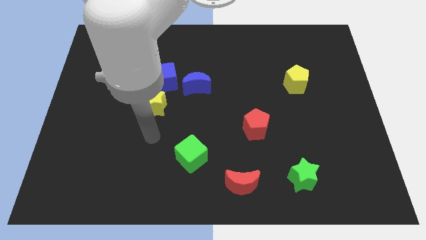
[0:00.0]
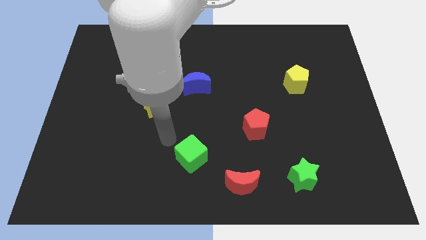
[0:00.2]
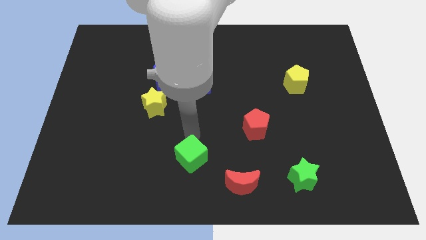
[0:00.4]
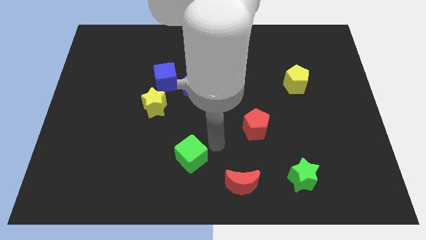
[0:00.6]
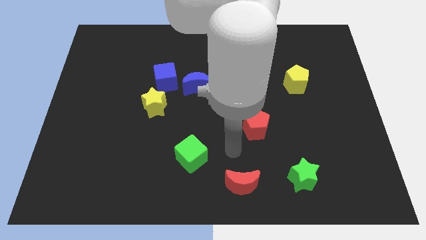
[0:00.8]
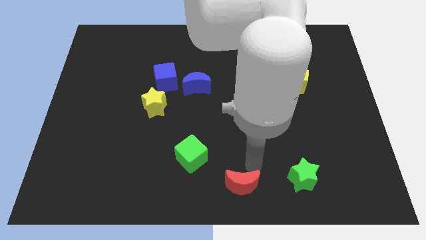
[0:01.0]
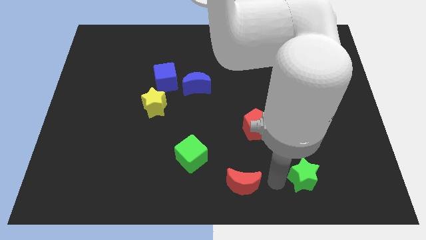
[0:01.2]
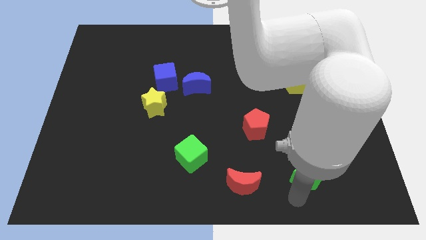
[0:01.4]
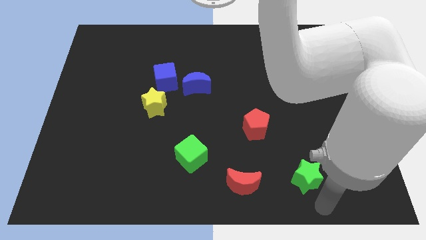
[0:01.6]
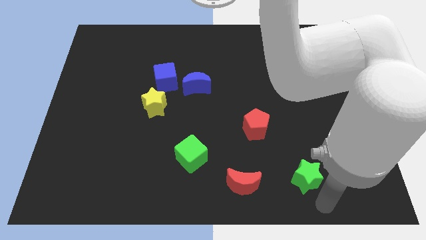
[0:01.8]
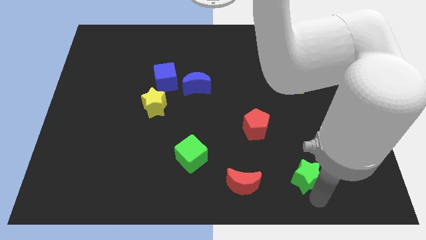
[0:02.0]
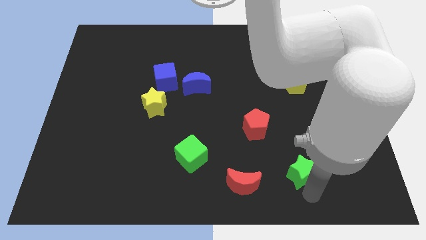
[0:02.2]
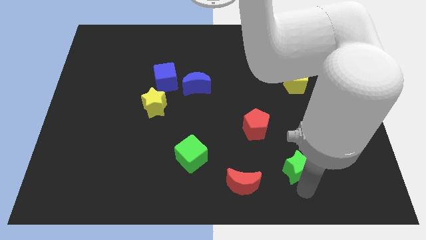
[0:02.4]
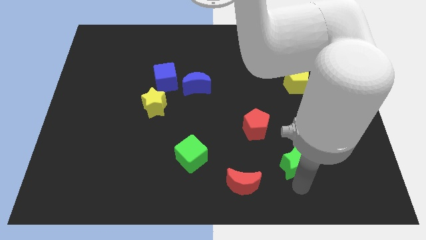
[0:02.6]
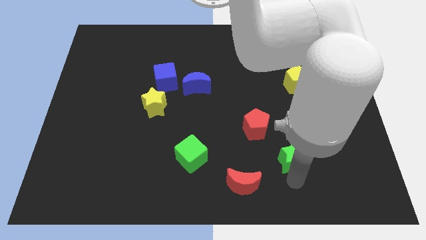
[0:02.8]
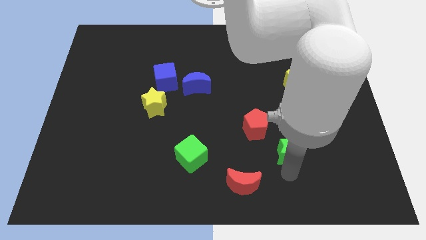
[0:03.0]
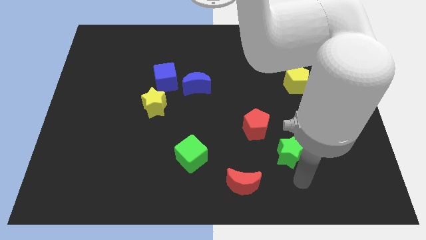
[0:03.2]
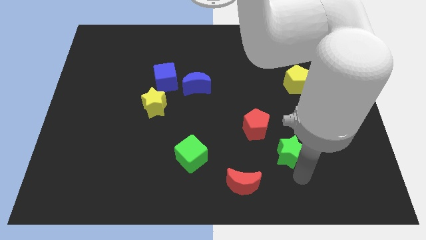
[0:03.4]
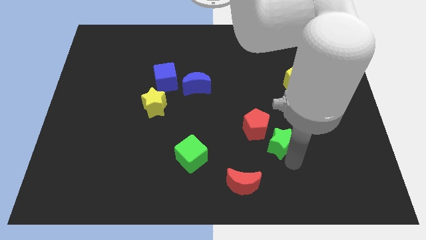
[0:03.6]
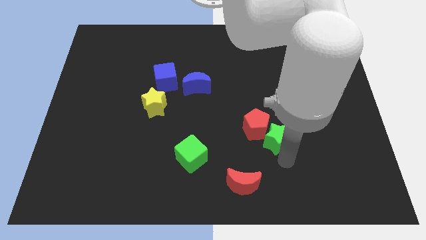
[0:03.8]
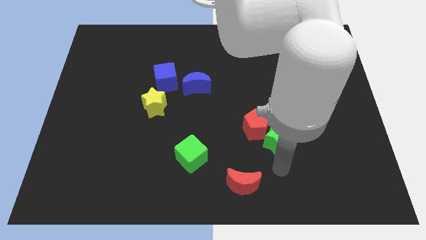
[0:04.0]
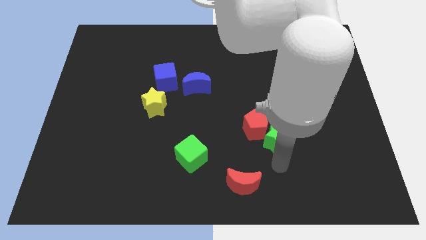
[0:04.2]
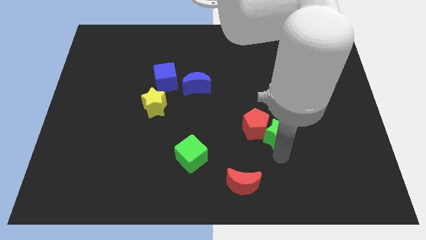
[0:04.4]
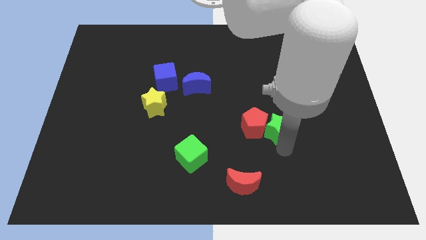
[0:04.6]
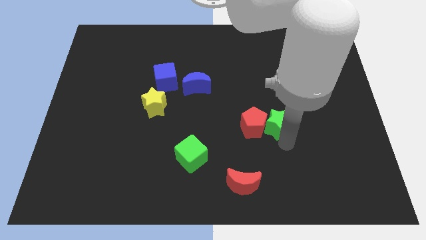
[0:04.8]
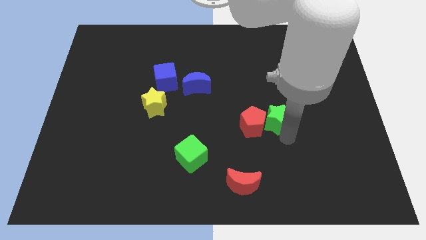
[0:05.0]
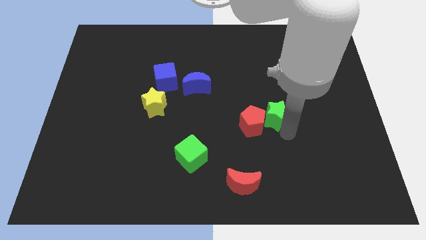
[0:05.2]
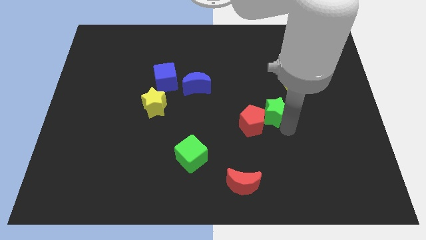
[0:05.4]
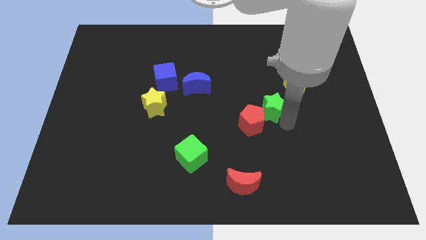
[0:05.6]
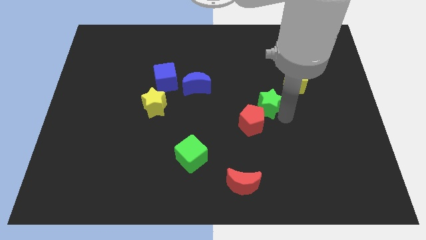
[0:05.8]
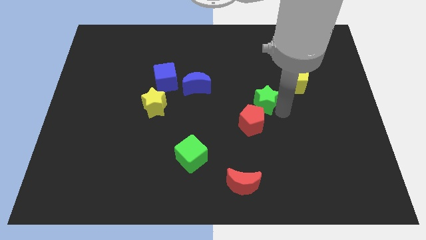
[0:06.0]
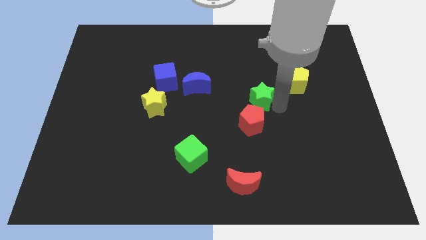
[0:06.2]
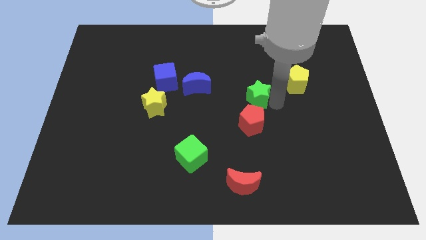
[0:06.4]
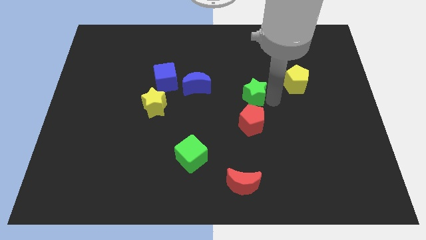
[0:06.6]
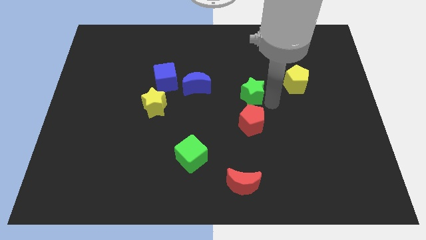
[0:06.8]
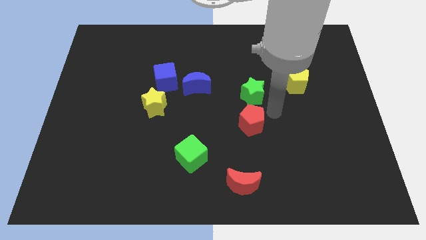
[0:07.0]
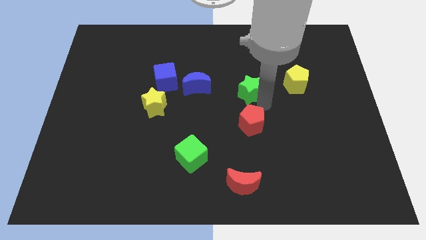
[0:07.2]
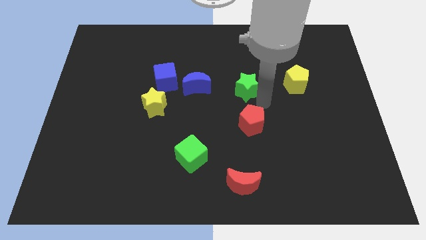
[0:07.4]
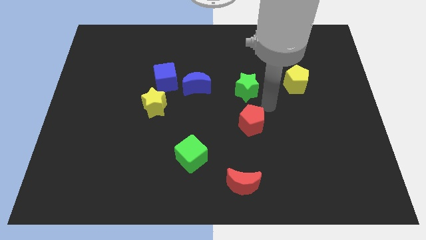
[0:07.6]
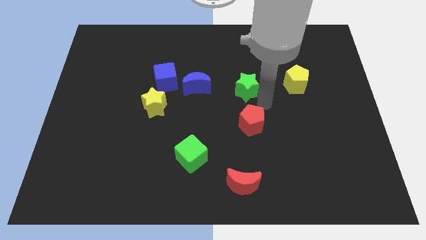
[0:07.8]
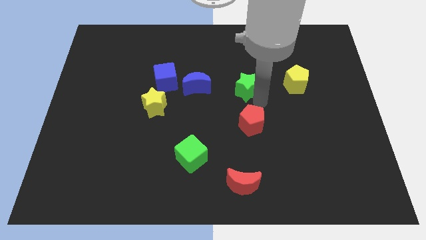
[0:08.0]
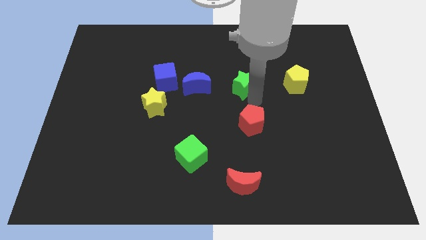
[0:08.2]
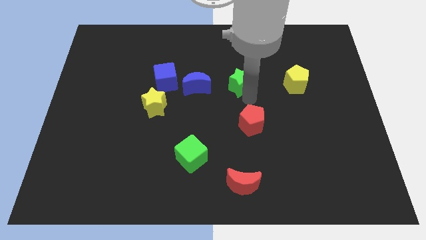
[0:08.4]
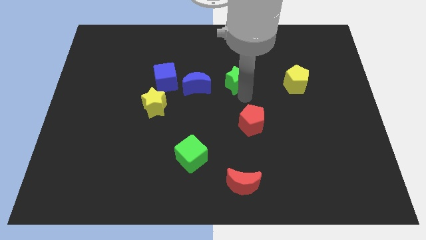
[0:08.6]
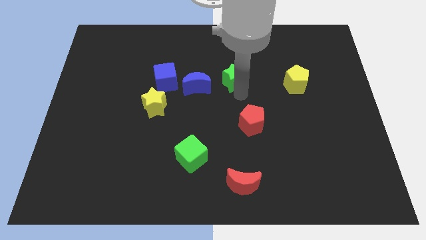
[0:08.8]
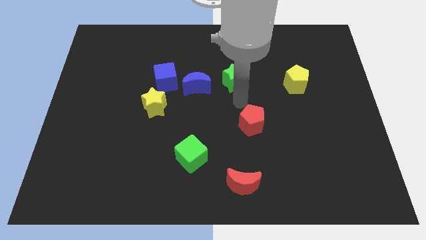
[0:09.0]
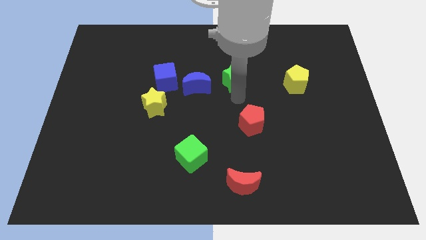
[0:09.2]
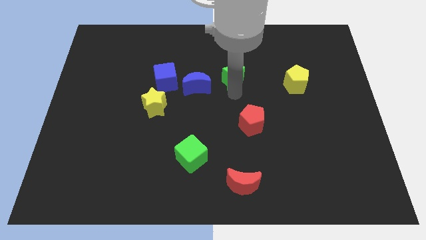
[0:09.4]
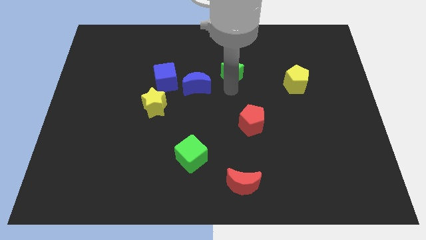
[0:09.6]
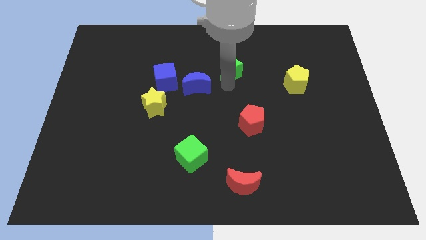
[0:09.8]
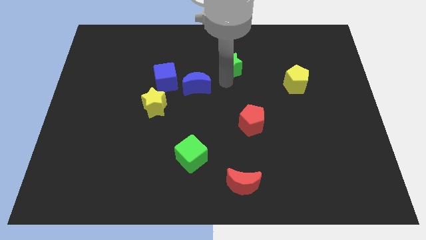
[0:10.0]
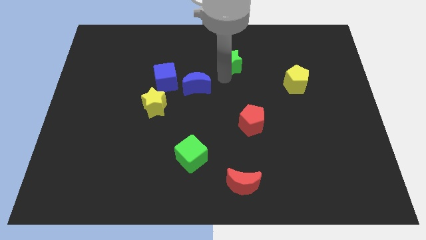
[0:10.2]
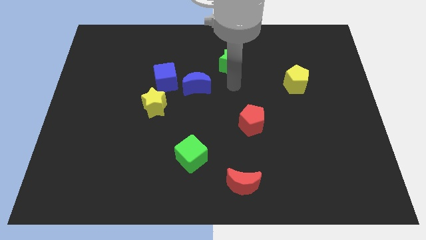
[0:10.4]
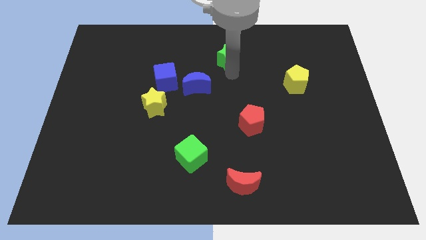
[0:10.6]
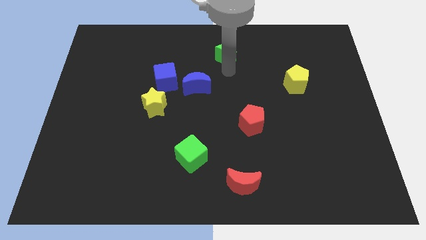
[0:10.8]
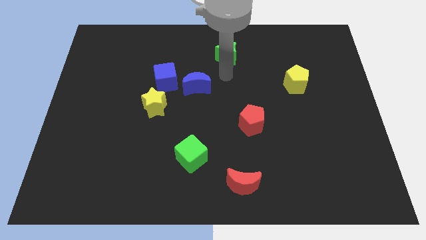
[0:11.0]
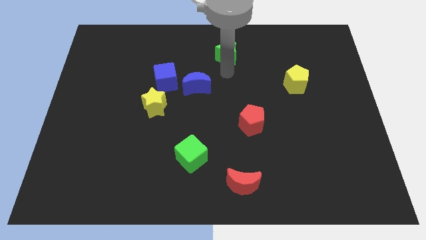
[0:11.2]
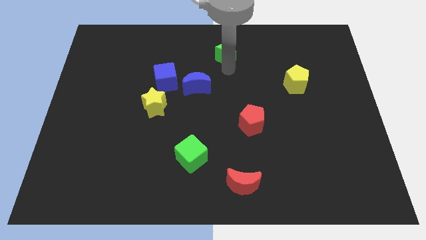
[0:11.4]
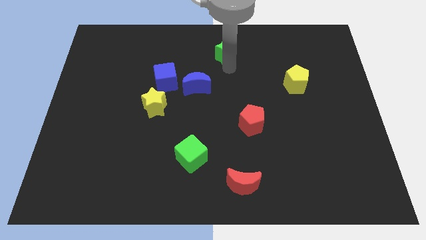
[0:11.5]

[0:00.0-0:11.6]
put the green star to the top
